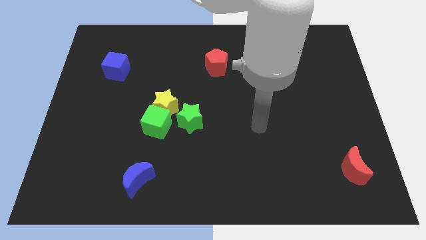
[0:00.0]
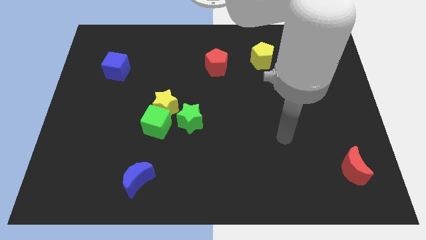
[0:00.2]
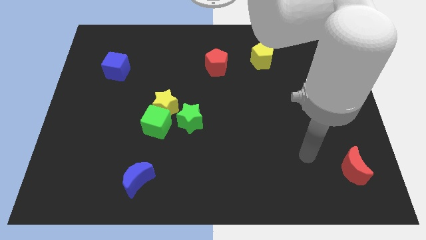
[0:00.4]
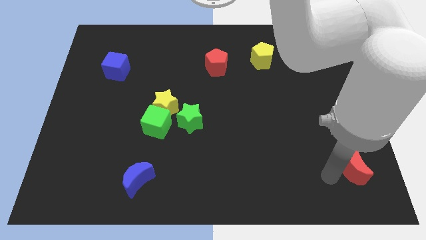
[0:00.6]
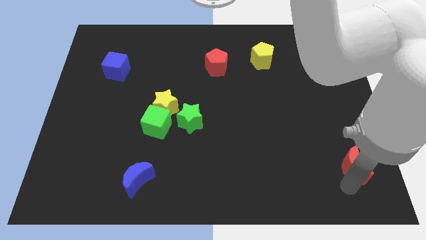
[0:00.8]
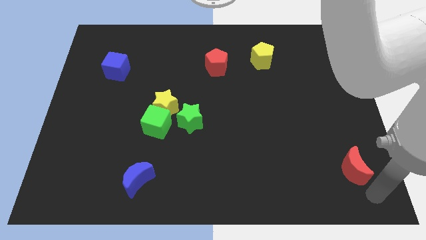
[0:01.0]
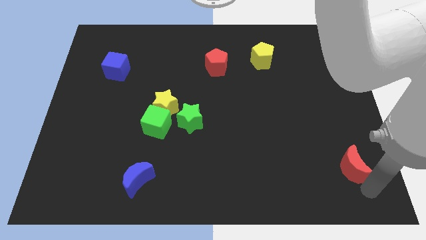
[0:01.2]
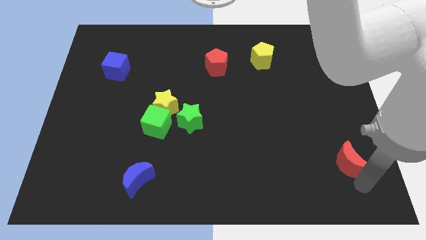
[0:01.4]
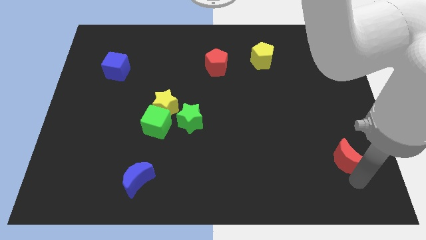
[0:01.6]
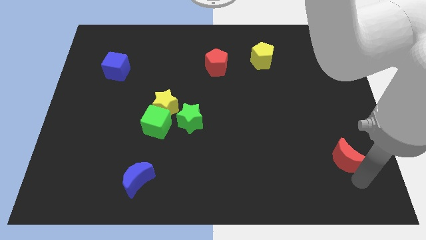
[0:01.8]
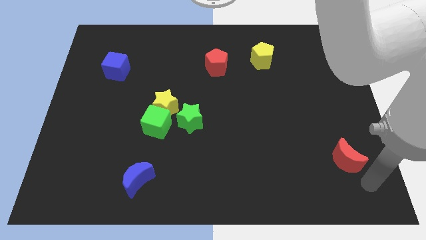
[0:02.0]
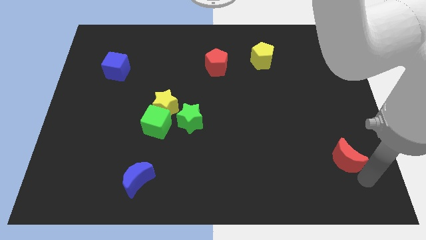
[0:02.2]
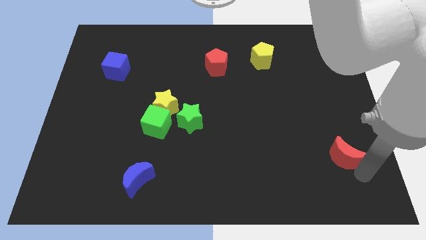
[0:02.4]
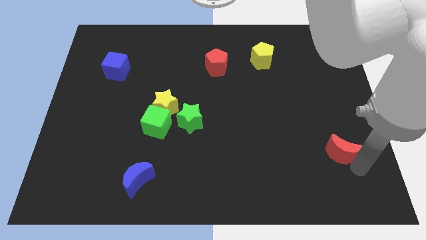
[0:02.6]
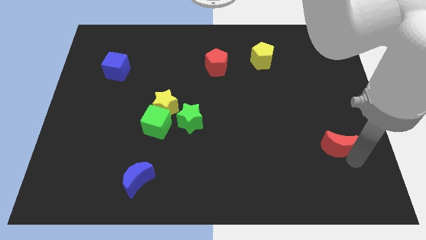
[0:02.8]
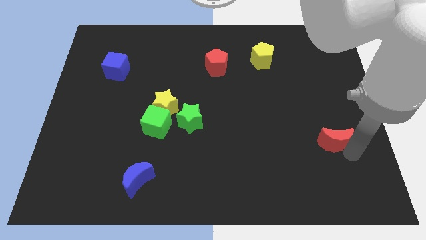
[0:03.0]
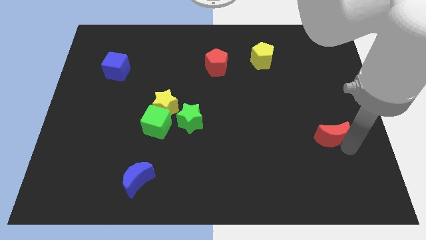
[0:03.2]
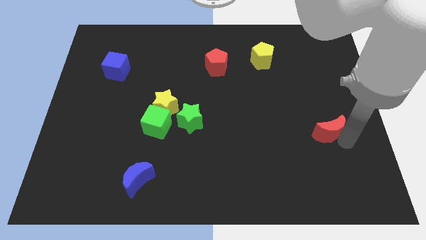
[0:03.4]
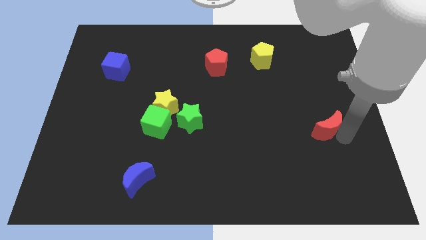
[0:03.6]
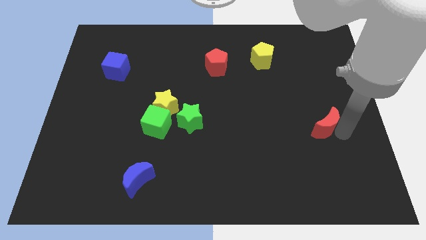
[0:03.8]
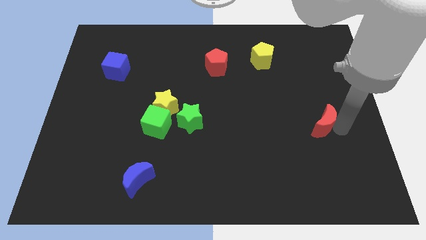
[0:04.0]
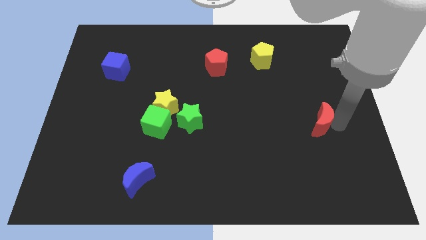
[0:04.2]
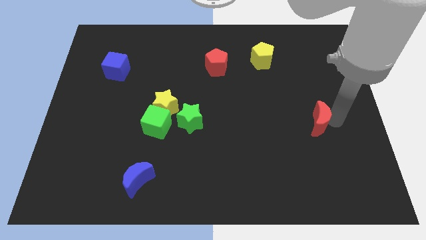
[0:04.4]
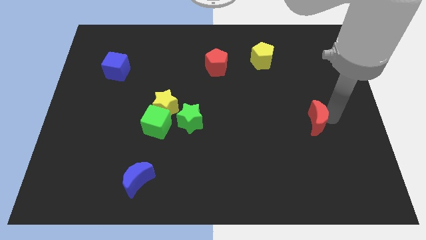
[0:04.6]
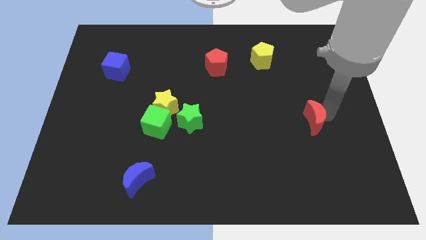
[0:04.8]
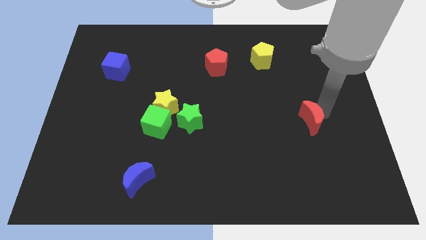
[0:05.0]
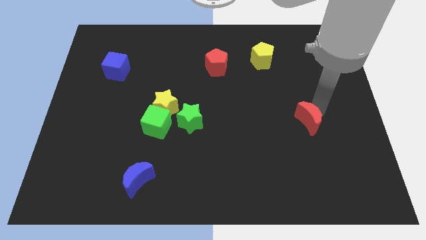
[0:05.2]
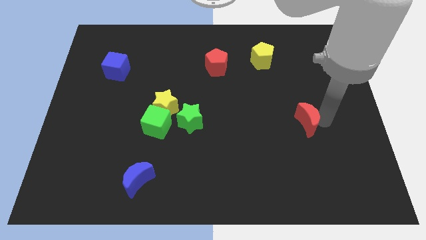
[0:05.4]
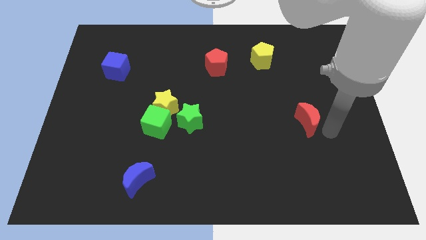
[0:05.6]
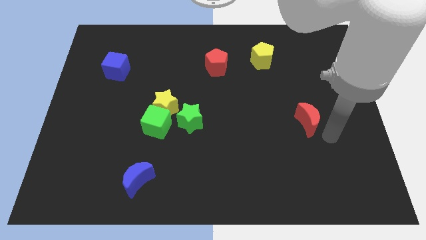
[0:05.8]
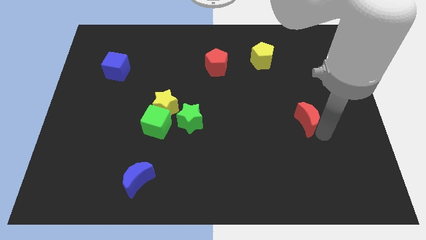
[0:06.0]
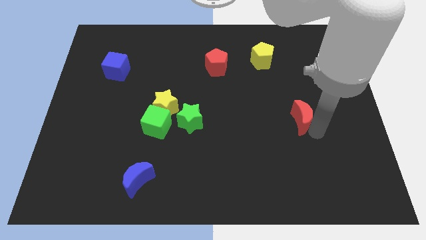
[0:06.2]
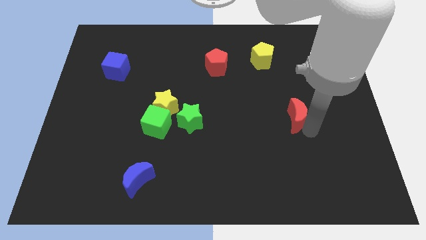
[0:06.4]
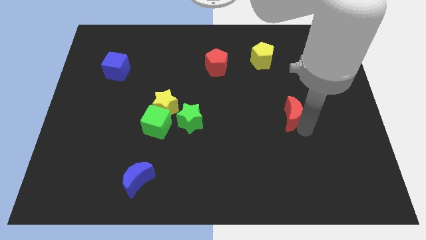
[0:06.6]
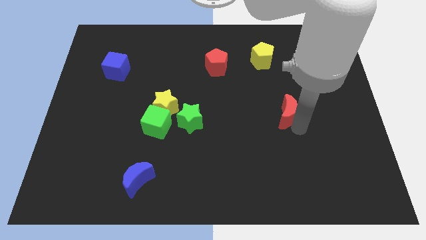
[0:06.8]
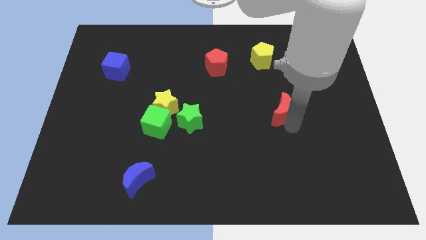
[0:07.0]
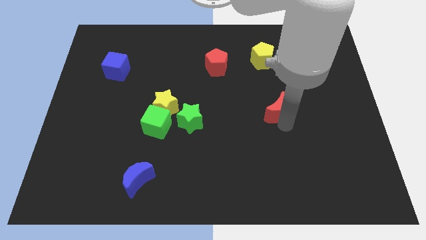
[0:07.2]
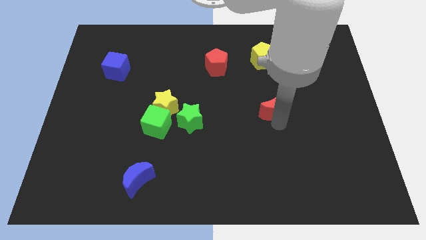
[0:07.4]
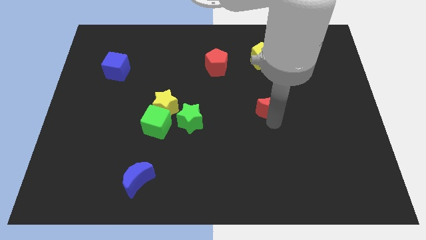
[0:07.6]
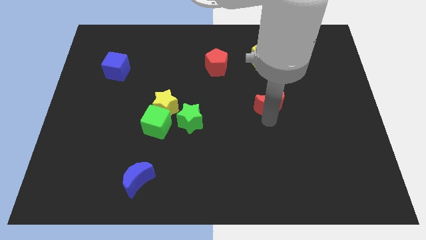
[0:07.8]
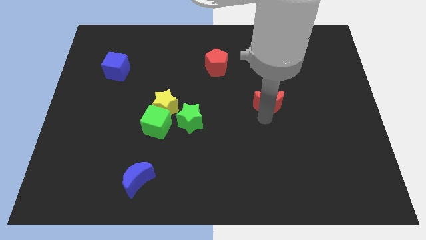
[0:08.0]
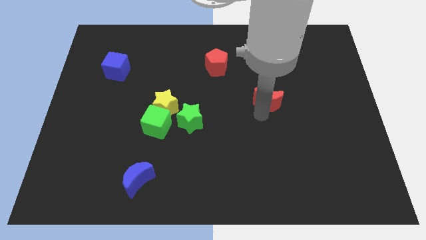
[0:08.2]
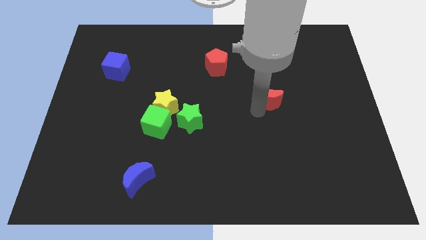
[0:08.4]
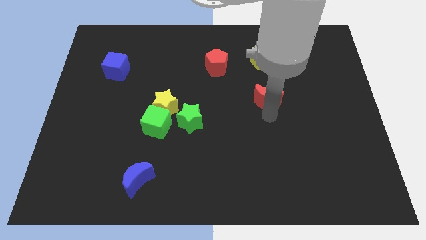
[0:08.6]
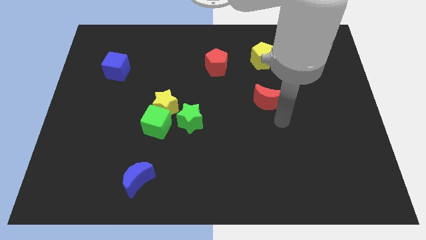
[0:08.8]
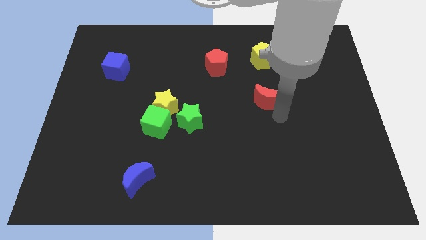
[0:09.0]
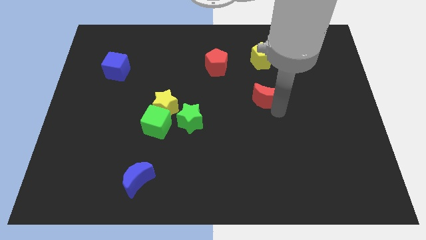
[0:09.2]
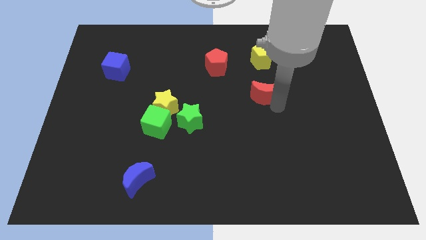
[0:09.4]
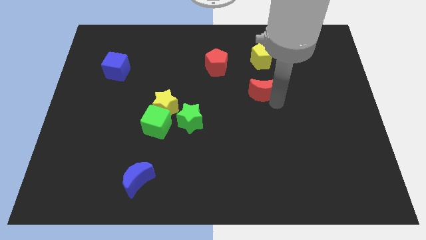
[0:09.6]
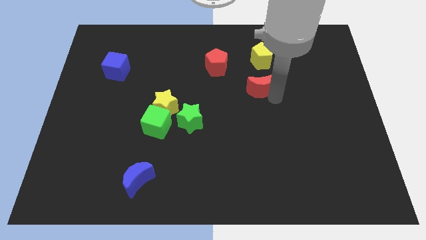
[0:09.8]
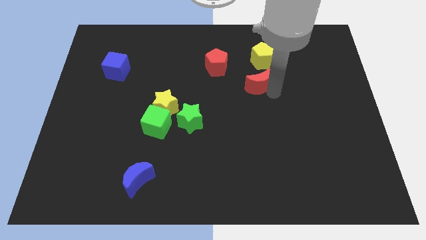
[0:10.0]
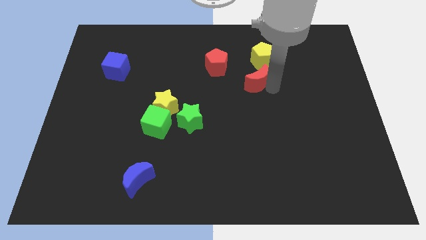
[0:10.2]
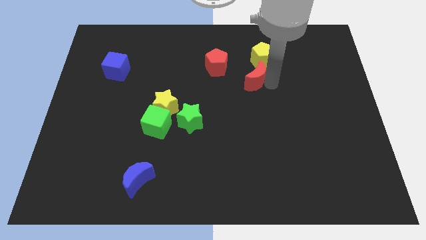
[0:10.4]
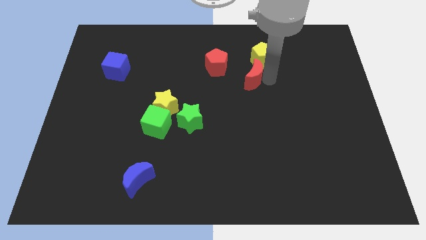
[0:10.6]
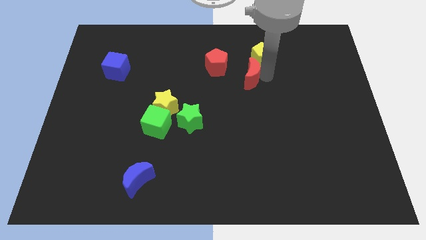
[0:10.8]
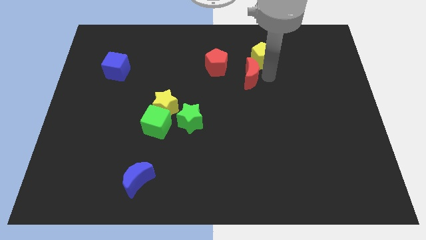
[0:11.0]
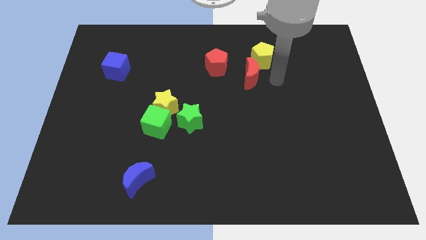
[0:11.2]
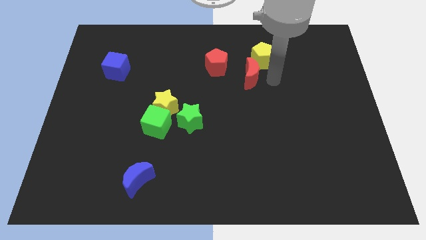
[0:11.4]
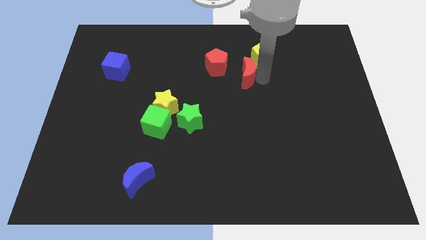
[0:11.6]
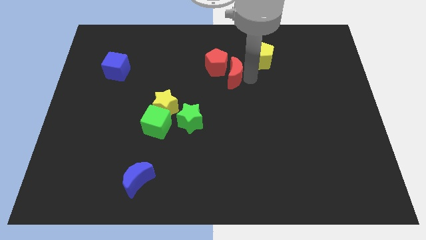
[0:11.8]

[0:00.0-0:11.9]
slide the red moon to the red pentagon

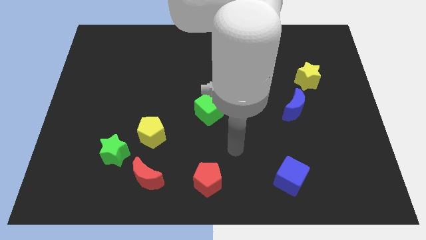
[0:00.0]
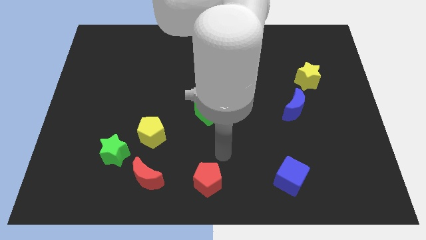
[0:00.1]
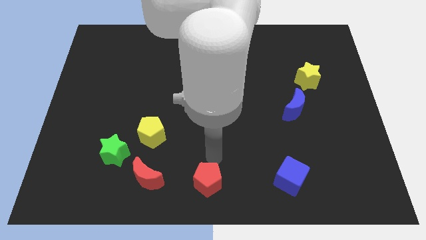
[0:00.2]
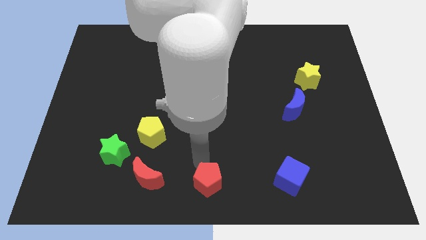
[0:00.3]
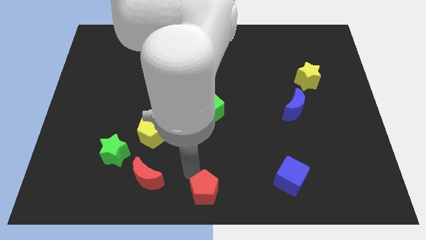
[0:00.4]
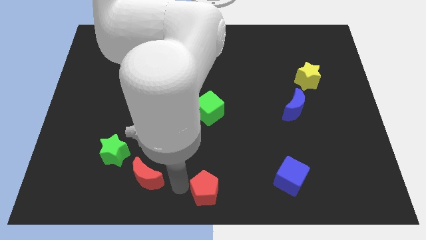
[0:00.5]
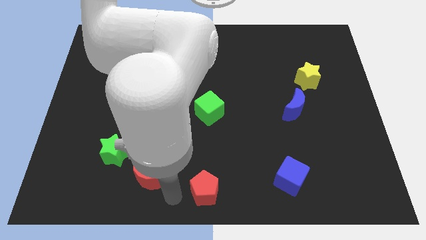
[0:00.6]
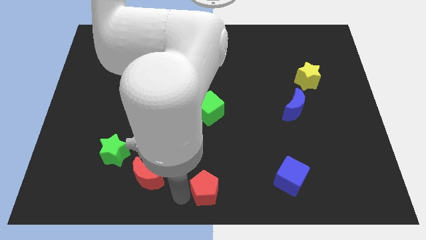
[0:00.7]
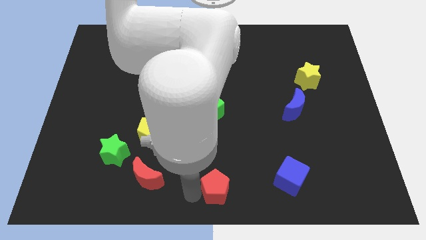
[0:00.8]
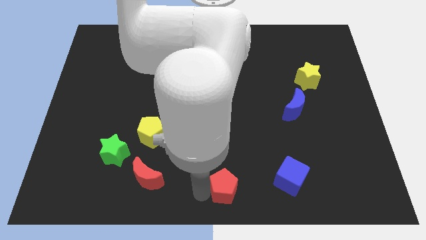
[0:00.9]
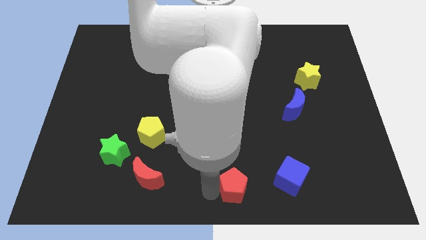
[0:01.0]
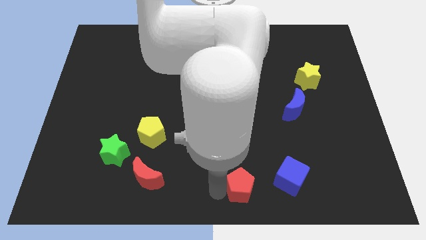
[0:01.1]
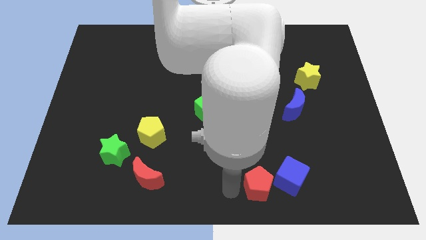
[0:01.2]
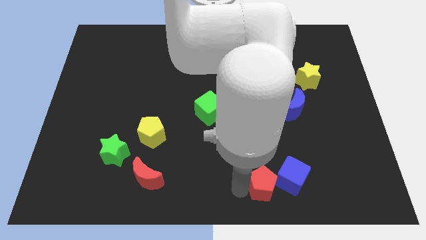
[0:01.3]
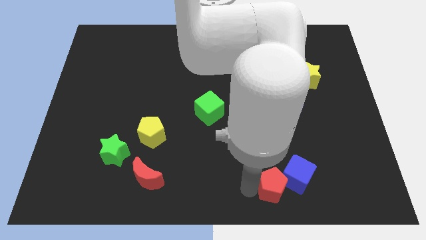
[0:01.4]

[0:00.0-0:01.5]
slide the red pentagon next to the blue cube
